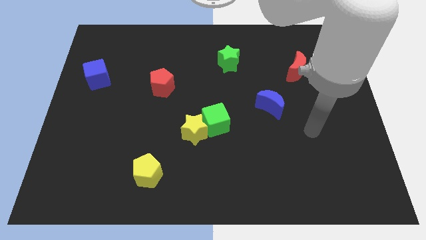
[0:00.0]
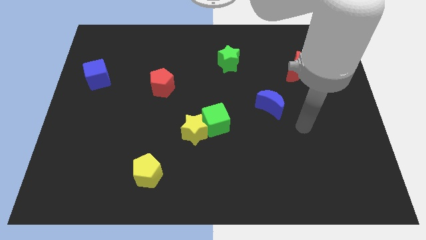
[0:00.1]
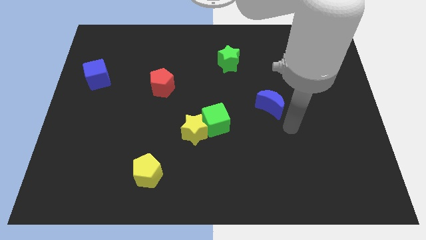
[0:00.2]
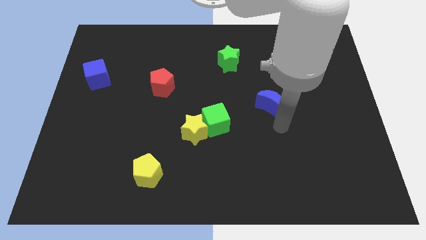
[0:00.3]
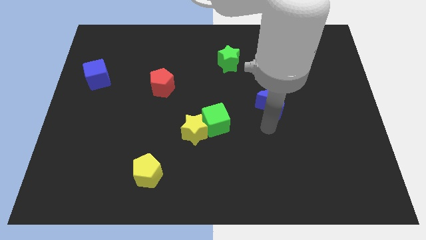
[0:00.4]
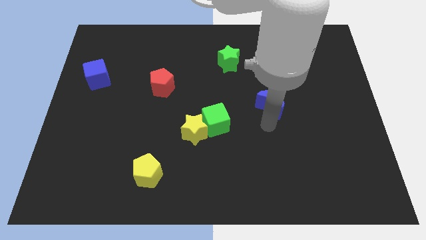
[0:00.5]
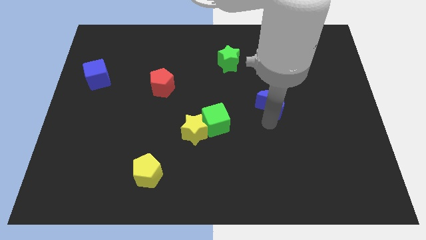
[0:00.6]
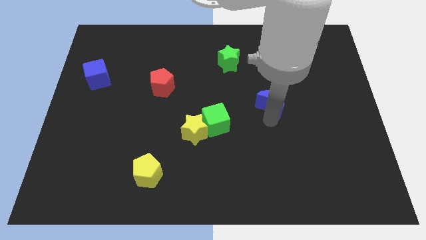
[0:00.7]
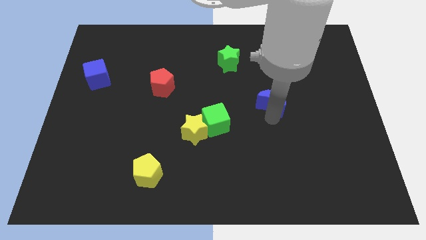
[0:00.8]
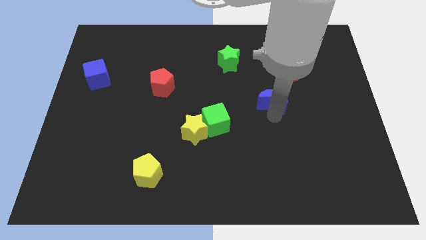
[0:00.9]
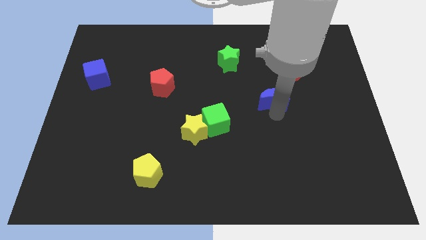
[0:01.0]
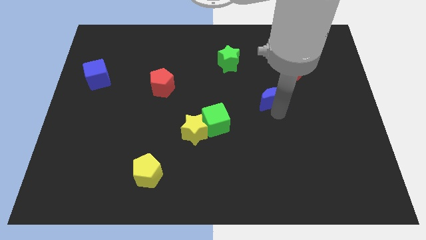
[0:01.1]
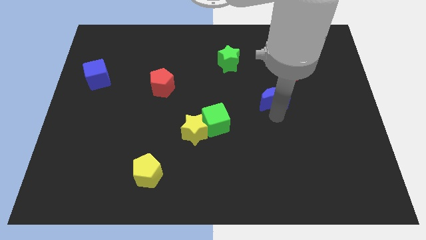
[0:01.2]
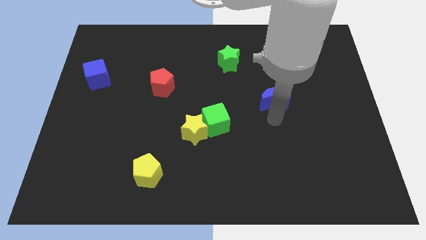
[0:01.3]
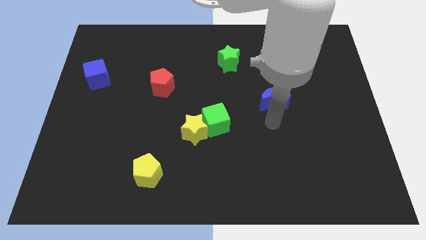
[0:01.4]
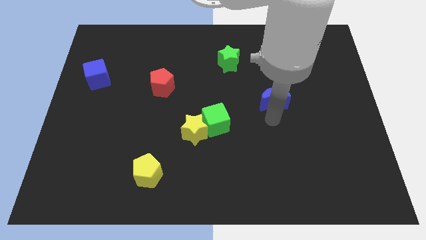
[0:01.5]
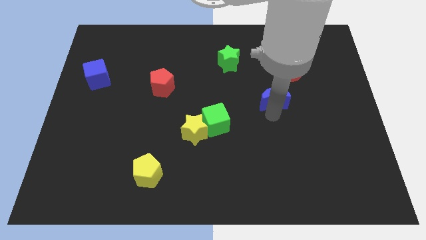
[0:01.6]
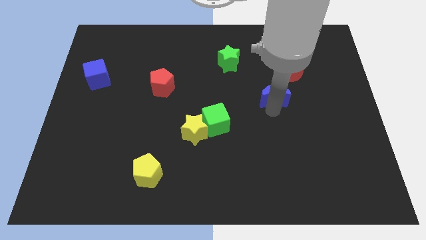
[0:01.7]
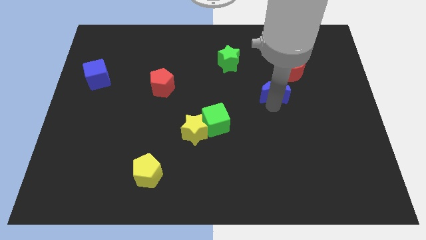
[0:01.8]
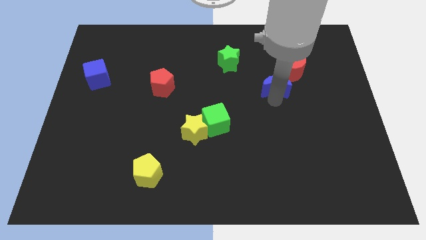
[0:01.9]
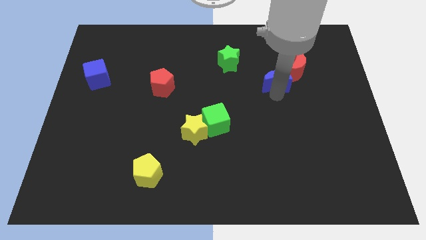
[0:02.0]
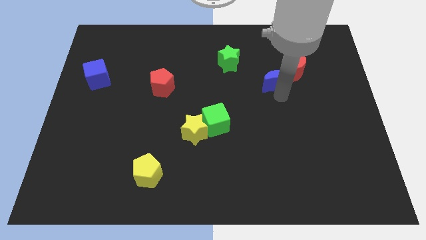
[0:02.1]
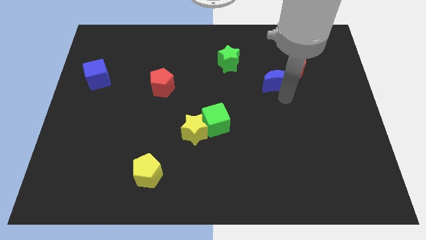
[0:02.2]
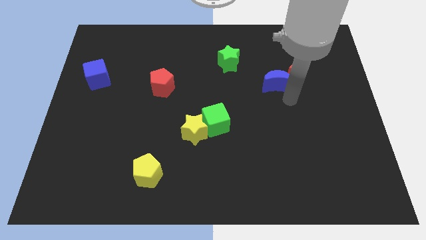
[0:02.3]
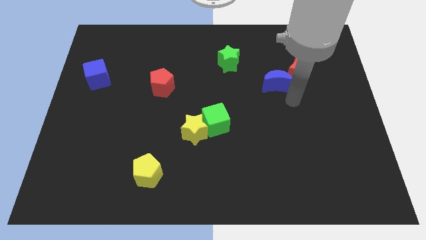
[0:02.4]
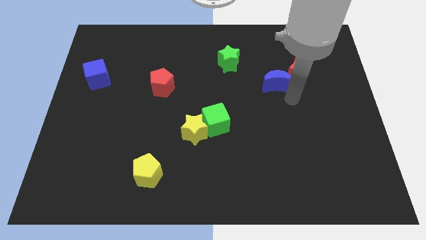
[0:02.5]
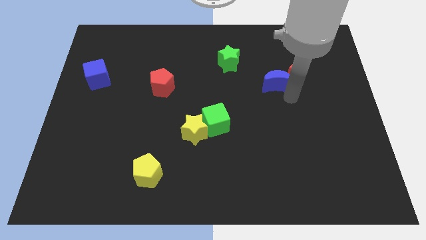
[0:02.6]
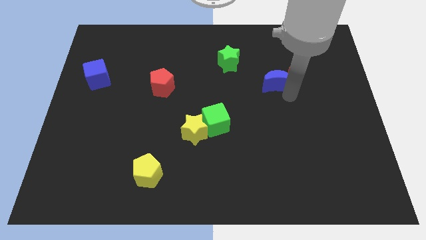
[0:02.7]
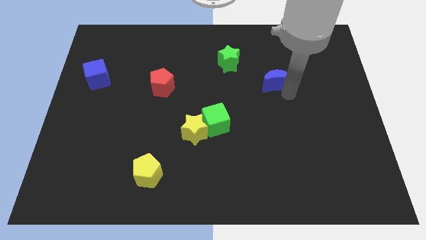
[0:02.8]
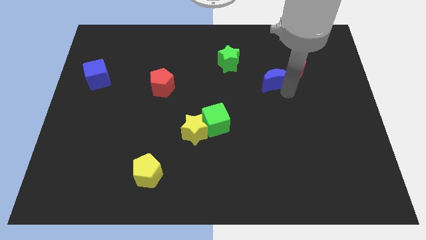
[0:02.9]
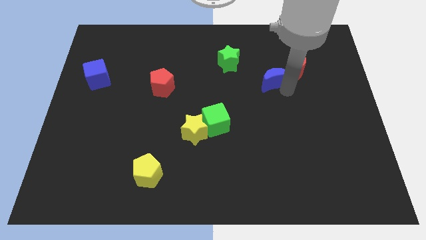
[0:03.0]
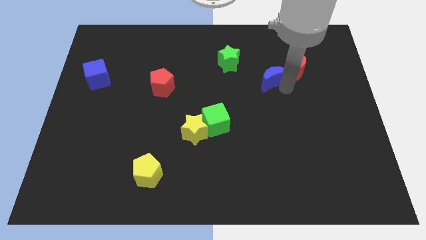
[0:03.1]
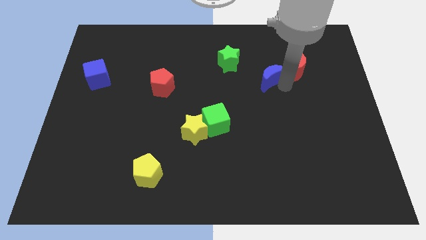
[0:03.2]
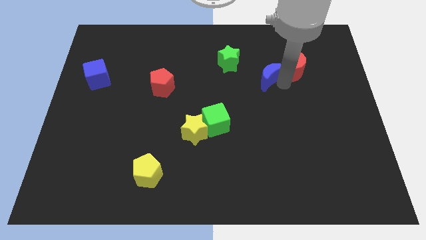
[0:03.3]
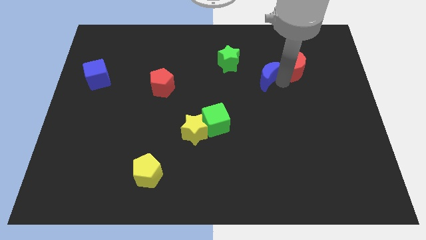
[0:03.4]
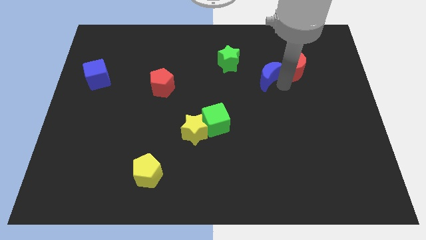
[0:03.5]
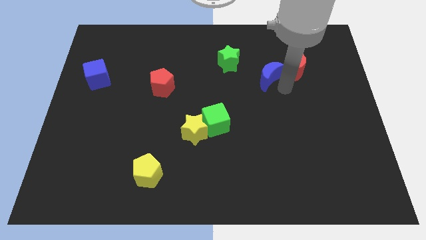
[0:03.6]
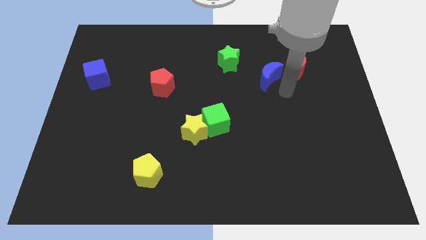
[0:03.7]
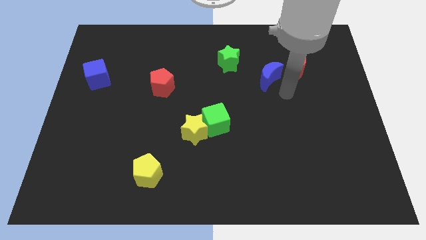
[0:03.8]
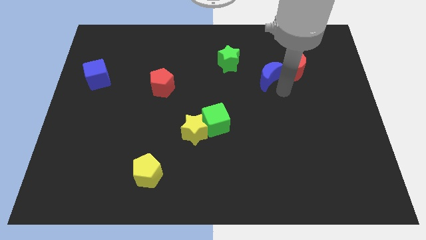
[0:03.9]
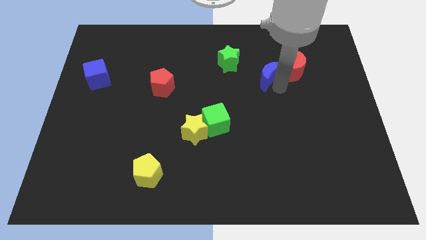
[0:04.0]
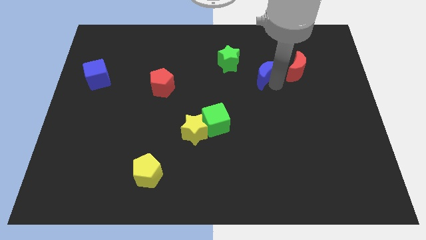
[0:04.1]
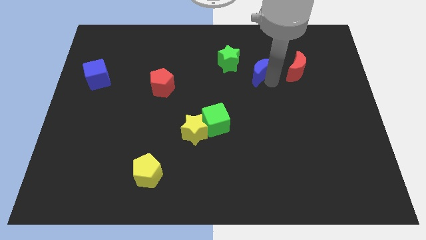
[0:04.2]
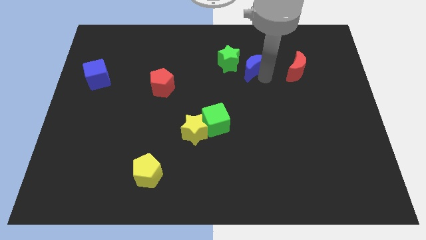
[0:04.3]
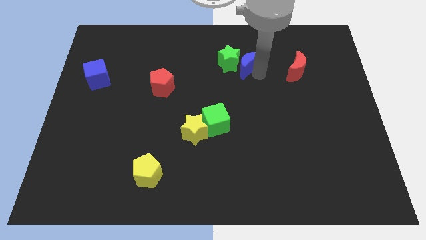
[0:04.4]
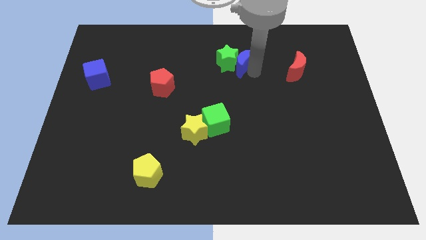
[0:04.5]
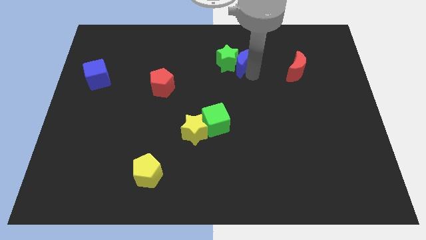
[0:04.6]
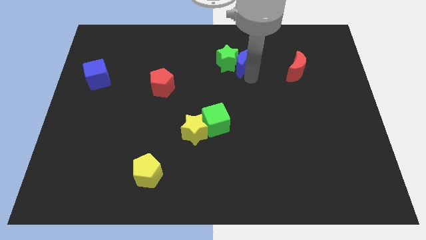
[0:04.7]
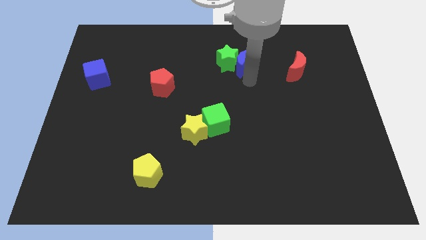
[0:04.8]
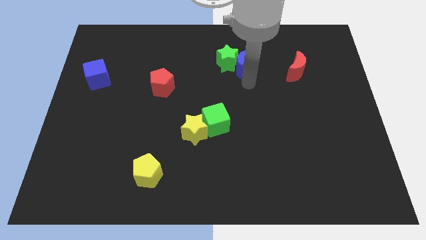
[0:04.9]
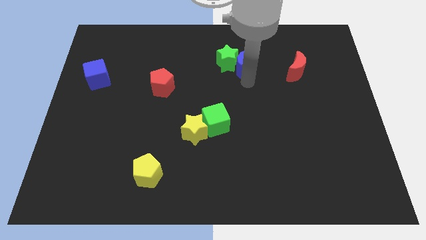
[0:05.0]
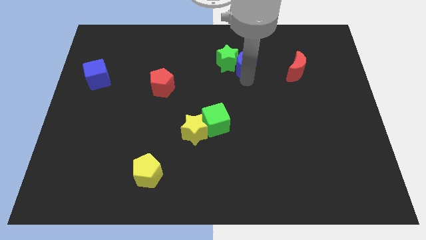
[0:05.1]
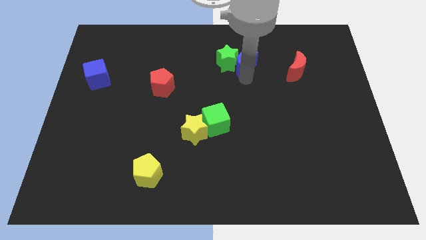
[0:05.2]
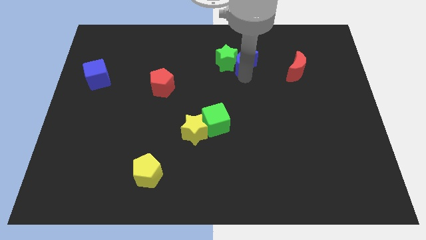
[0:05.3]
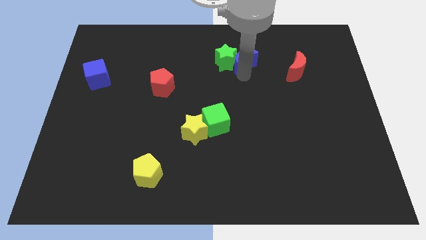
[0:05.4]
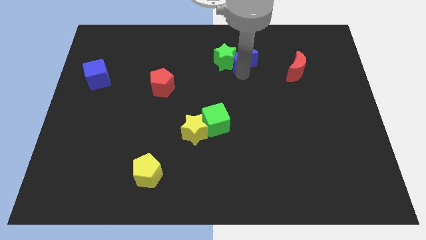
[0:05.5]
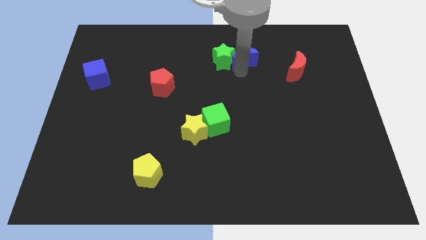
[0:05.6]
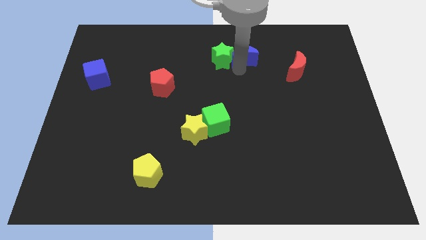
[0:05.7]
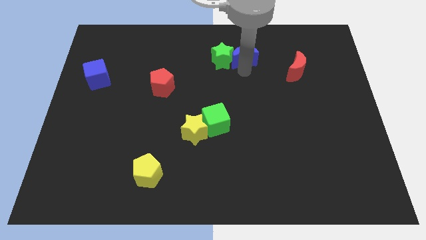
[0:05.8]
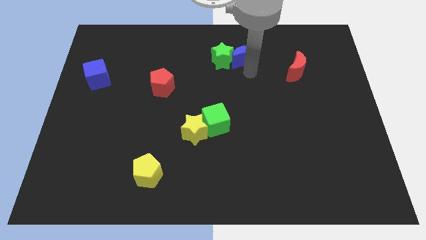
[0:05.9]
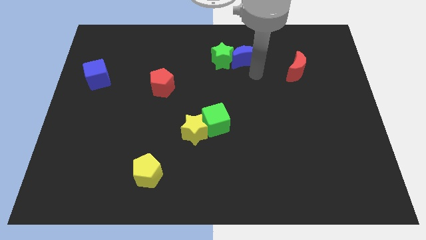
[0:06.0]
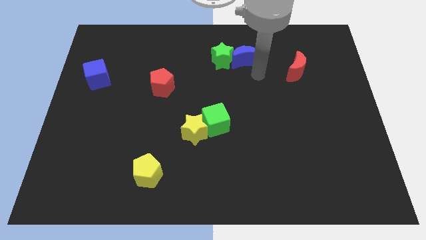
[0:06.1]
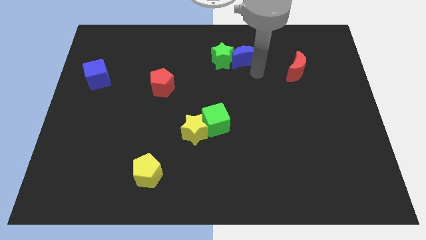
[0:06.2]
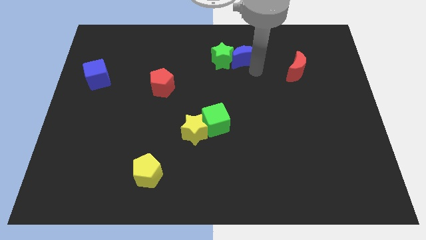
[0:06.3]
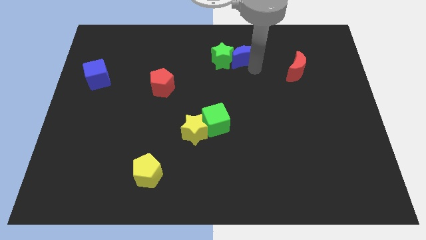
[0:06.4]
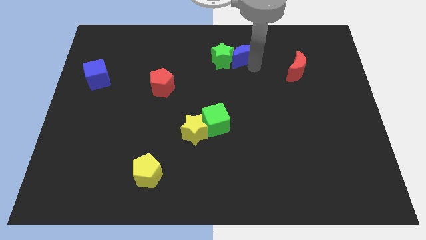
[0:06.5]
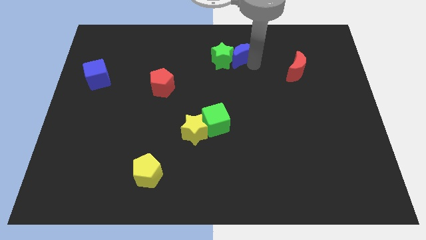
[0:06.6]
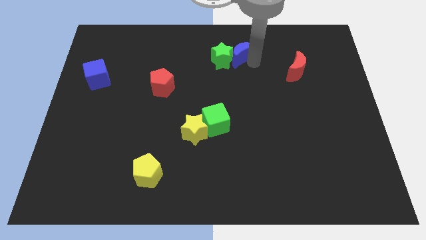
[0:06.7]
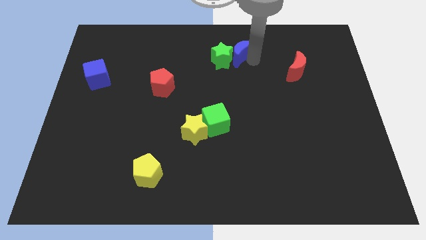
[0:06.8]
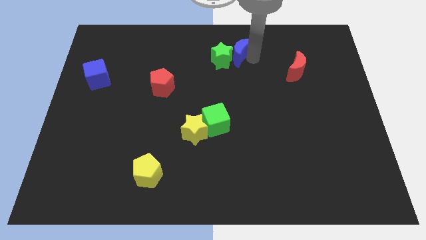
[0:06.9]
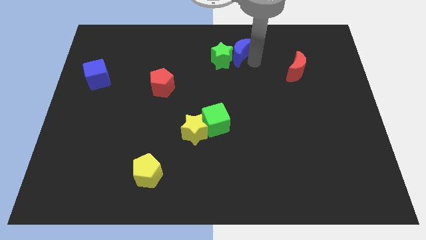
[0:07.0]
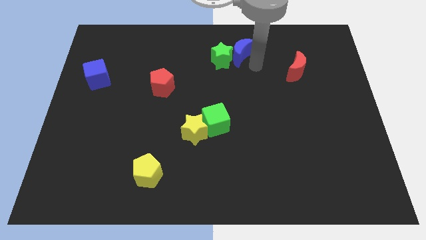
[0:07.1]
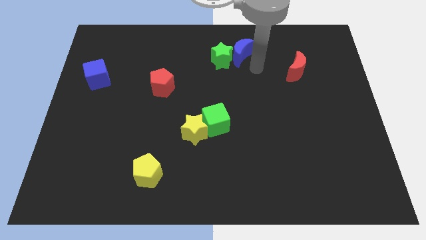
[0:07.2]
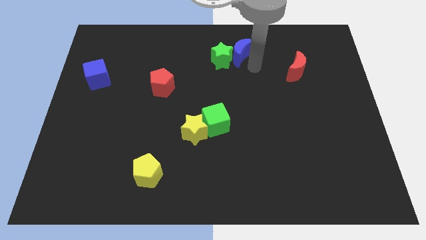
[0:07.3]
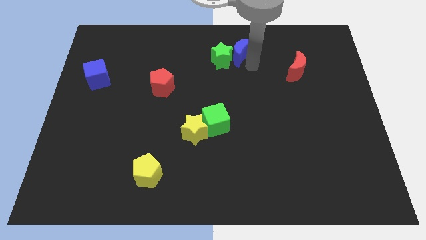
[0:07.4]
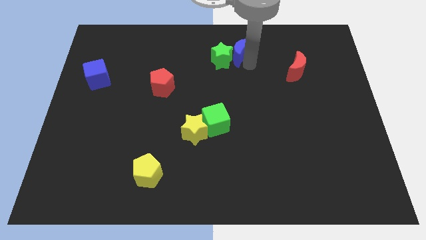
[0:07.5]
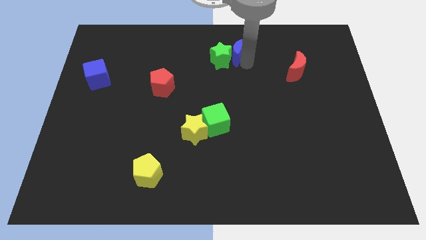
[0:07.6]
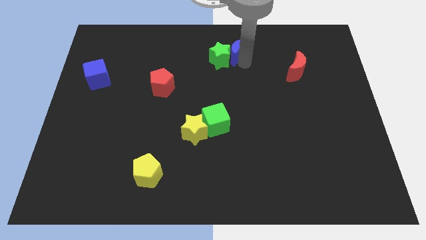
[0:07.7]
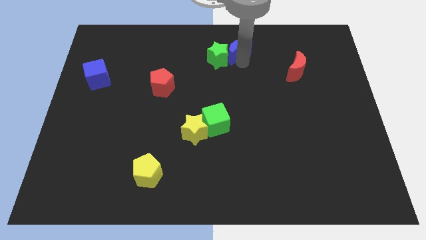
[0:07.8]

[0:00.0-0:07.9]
push the blue moon to the top
